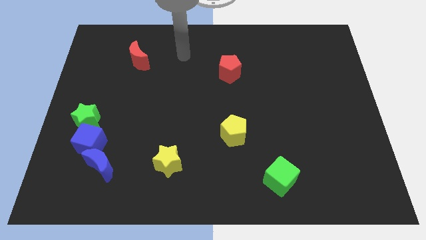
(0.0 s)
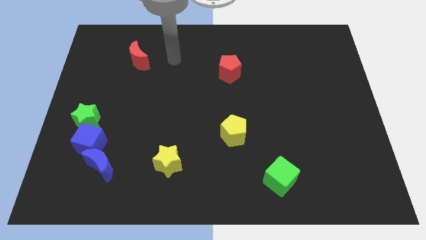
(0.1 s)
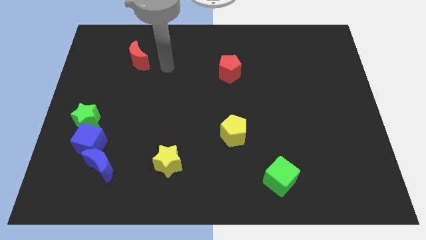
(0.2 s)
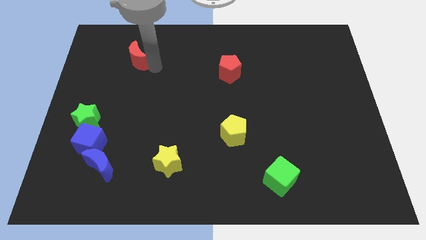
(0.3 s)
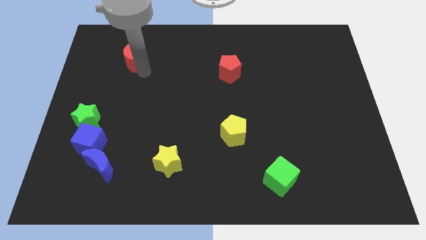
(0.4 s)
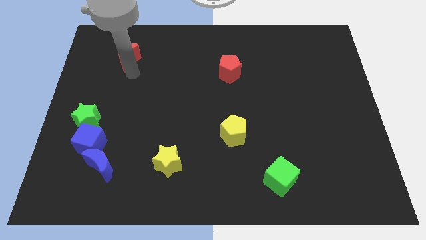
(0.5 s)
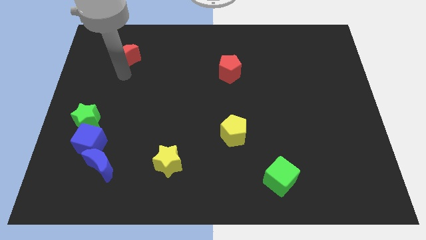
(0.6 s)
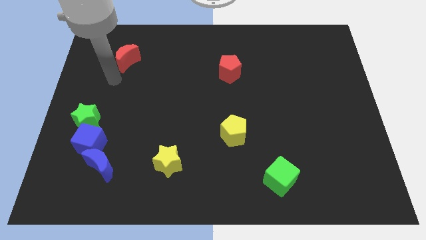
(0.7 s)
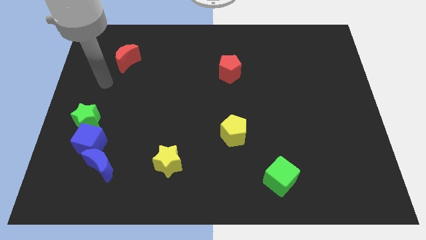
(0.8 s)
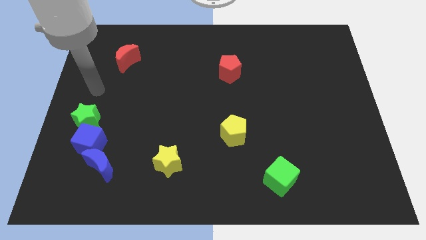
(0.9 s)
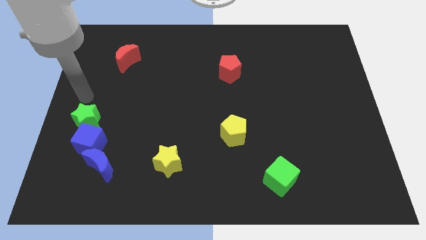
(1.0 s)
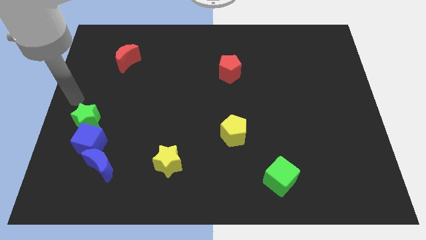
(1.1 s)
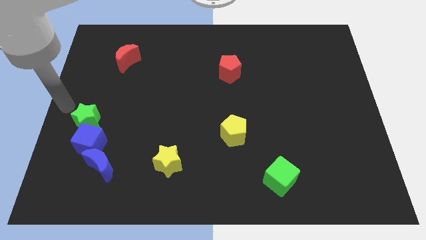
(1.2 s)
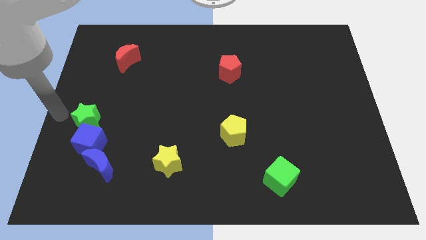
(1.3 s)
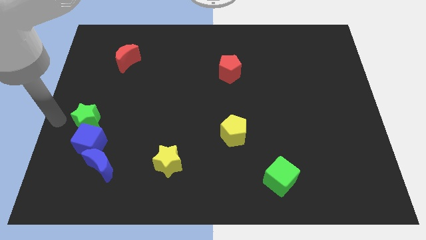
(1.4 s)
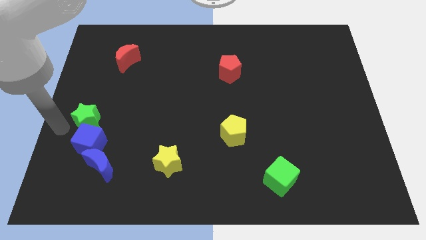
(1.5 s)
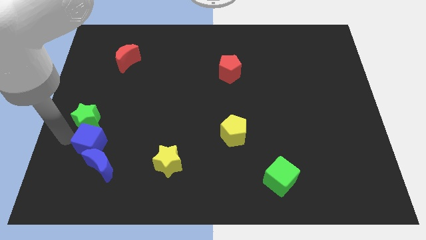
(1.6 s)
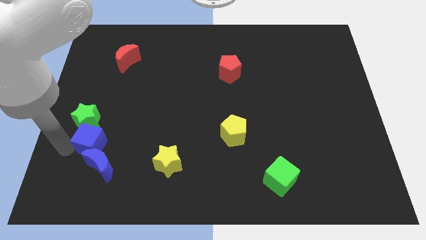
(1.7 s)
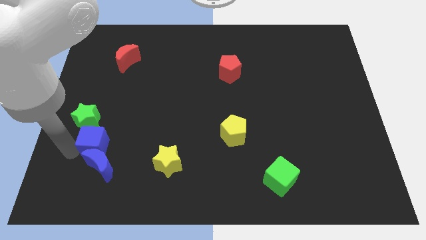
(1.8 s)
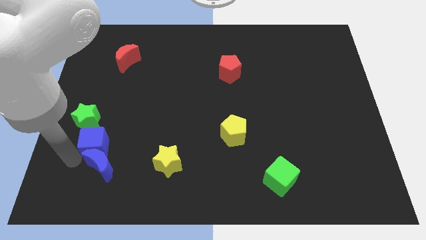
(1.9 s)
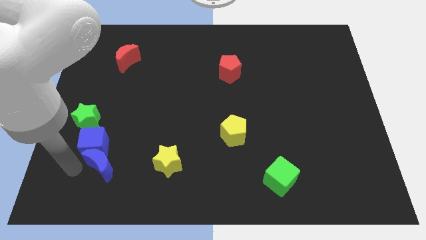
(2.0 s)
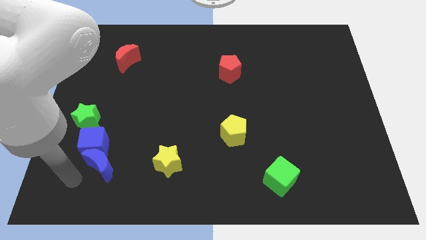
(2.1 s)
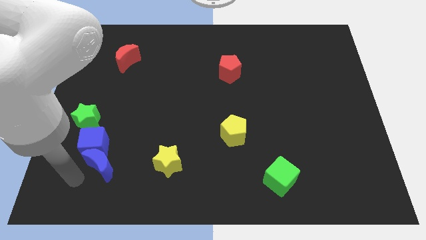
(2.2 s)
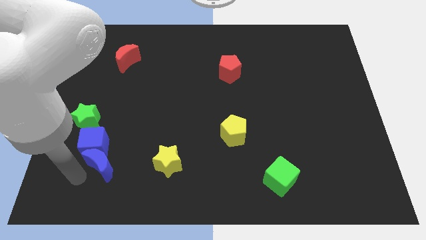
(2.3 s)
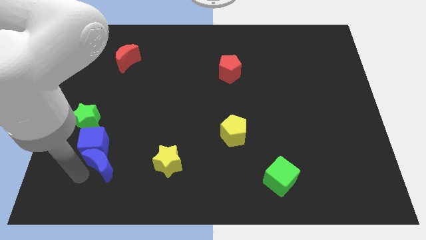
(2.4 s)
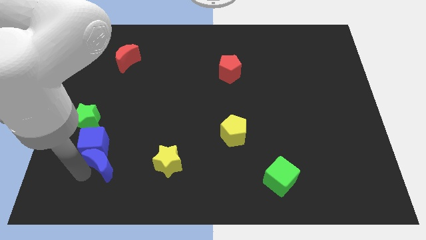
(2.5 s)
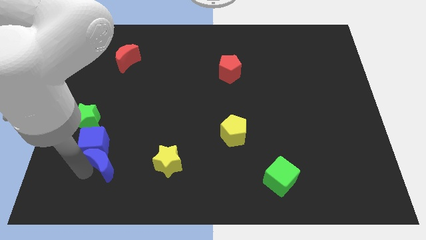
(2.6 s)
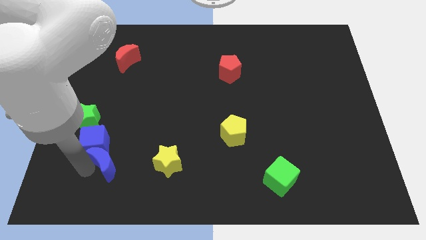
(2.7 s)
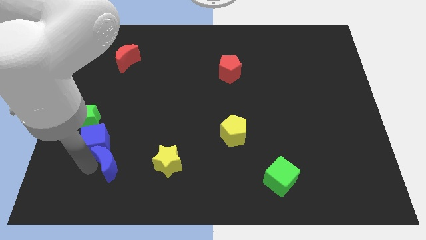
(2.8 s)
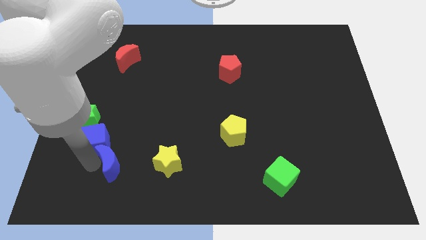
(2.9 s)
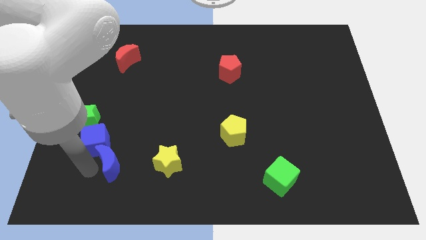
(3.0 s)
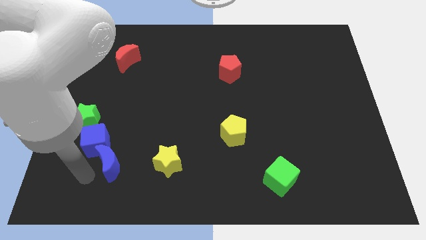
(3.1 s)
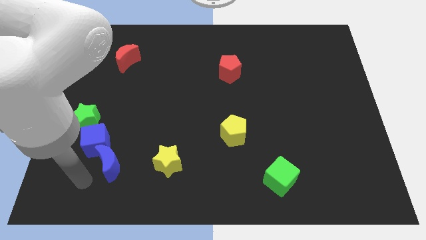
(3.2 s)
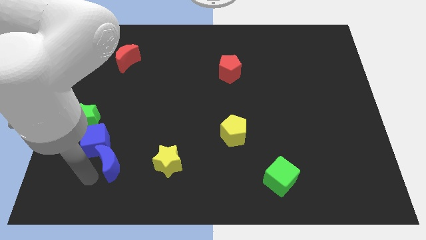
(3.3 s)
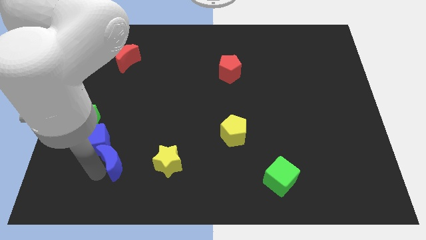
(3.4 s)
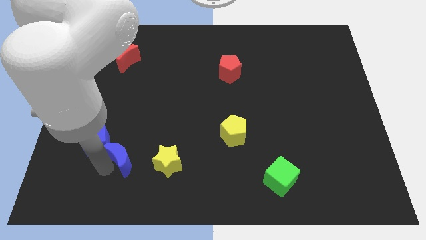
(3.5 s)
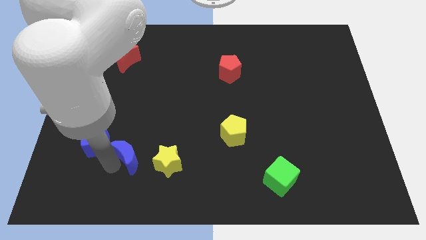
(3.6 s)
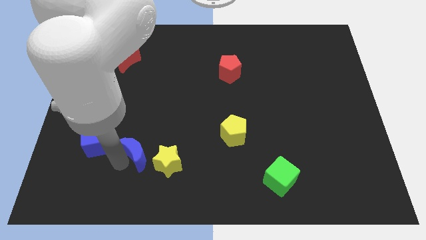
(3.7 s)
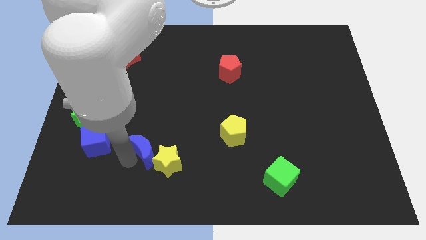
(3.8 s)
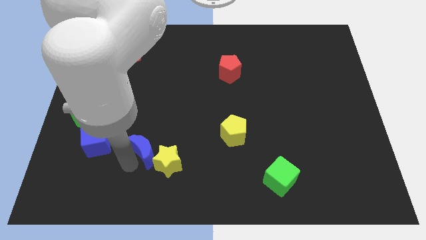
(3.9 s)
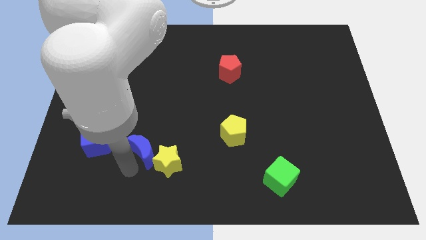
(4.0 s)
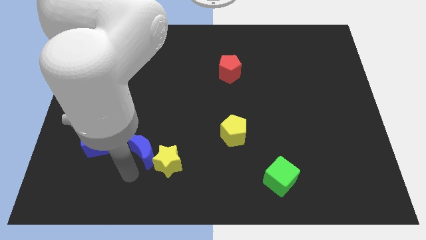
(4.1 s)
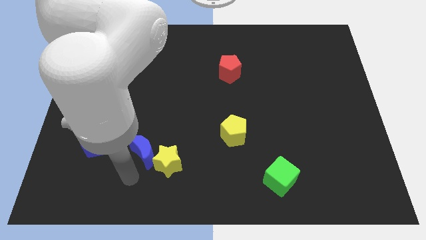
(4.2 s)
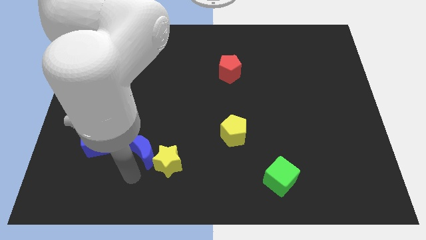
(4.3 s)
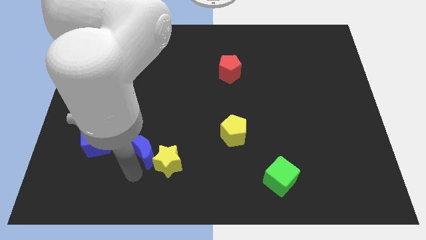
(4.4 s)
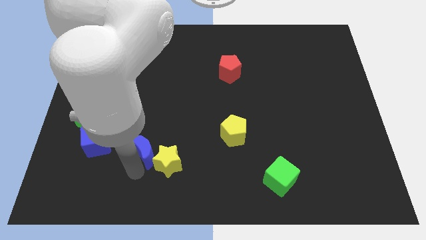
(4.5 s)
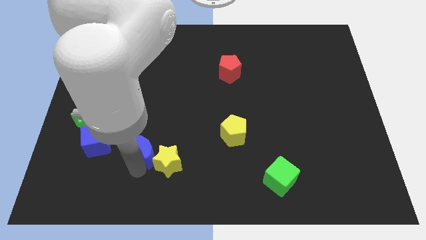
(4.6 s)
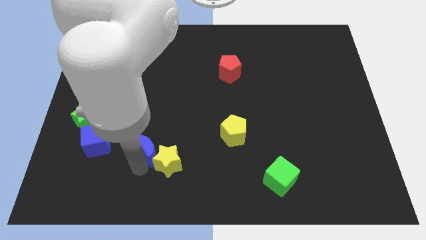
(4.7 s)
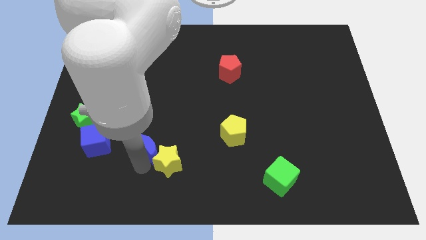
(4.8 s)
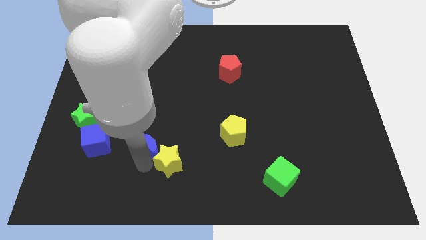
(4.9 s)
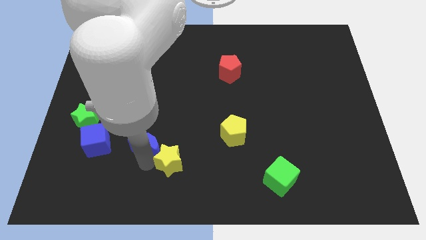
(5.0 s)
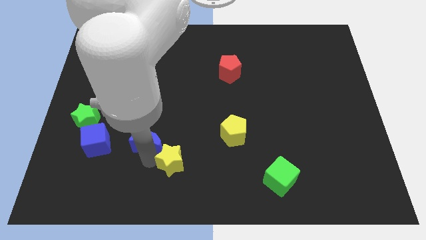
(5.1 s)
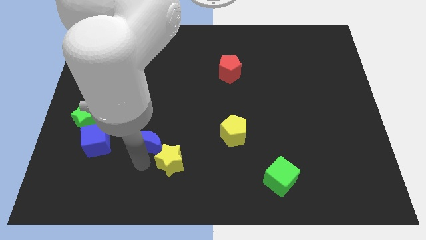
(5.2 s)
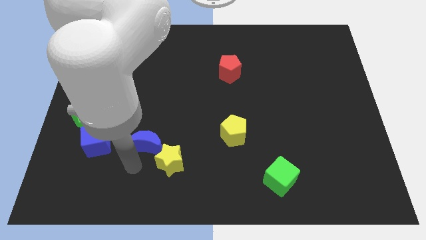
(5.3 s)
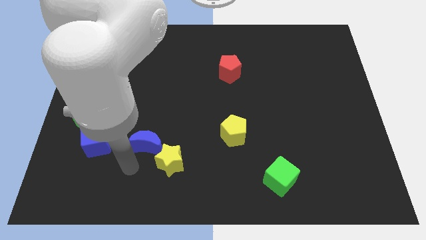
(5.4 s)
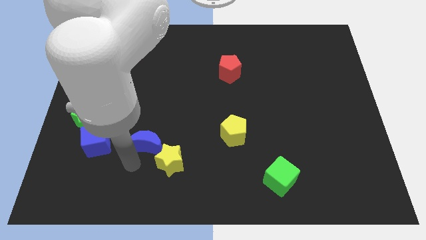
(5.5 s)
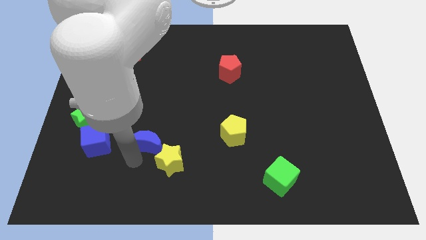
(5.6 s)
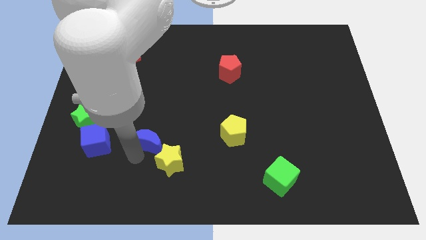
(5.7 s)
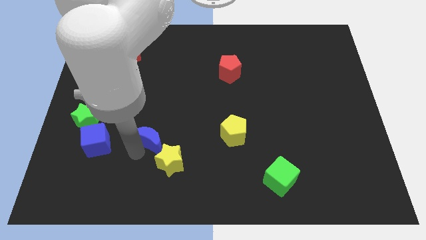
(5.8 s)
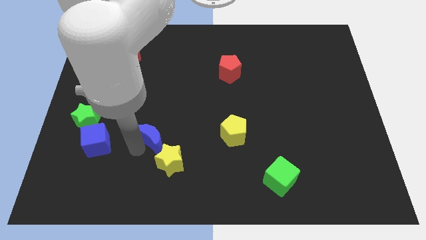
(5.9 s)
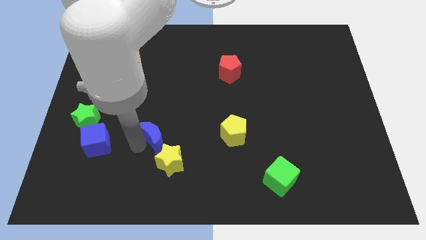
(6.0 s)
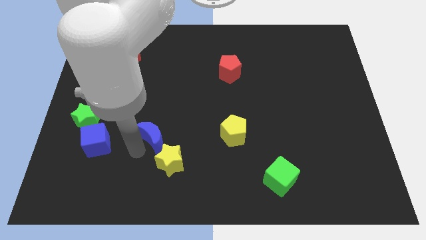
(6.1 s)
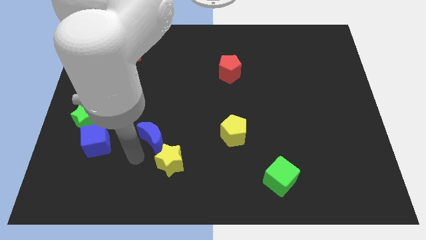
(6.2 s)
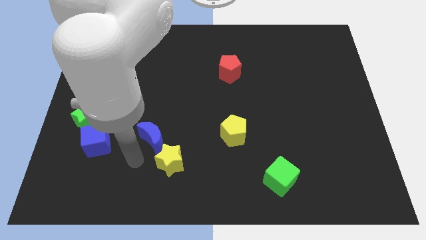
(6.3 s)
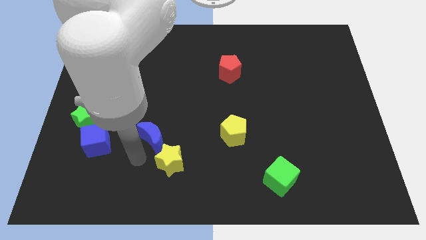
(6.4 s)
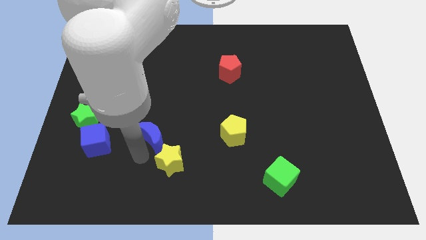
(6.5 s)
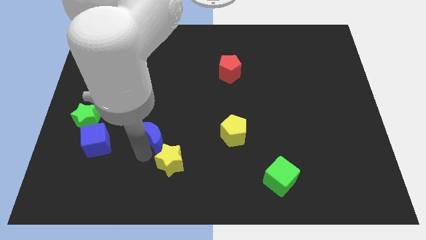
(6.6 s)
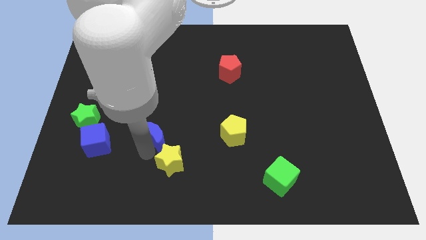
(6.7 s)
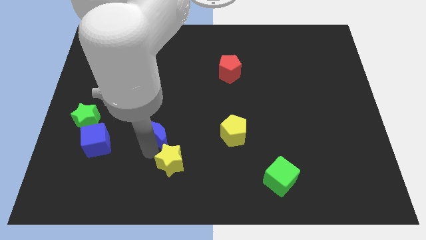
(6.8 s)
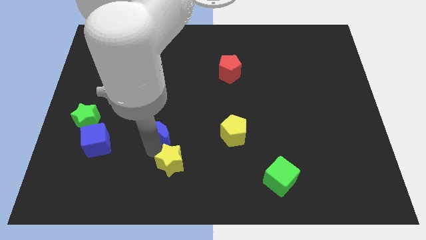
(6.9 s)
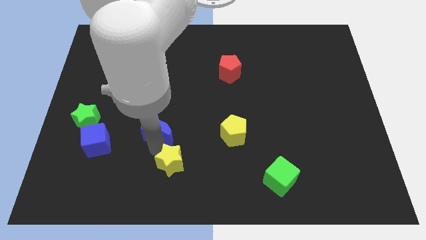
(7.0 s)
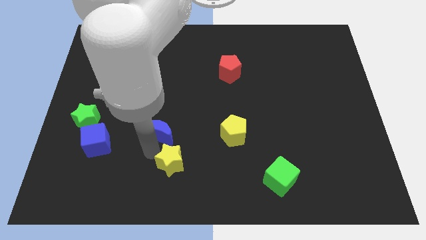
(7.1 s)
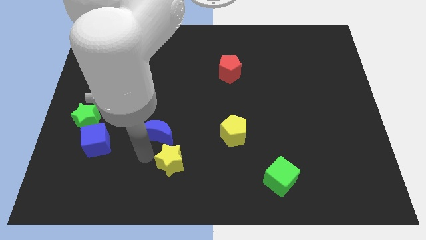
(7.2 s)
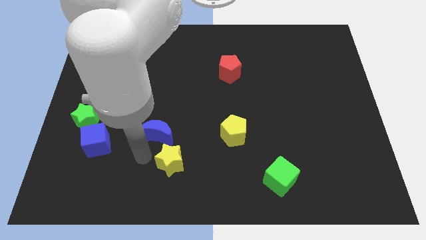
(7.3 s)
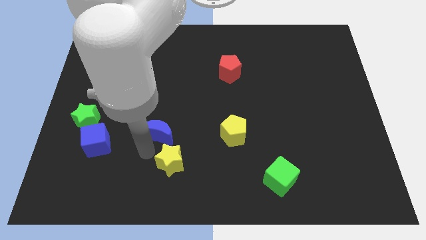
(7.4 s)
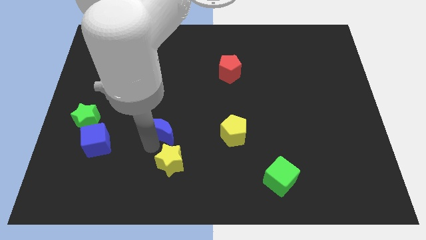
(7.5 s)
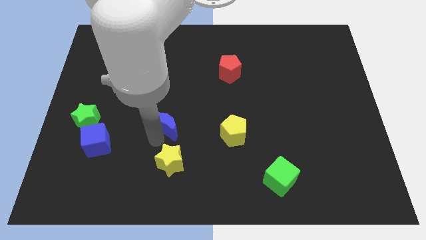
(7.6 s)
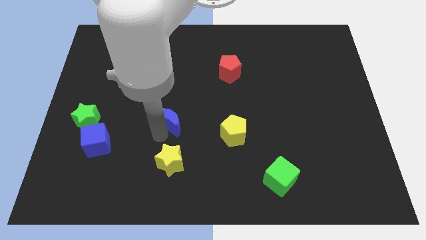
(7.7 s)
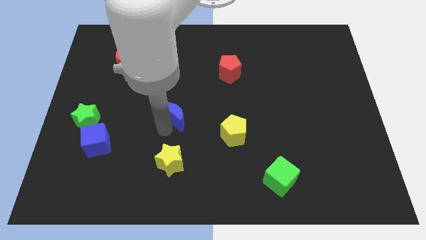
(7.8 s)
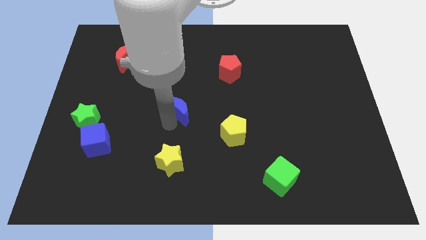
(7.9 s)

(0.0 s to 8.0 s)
move the blue moon upwards and to the right diagonally

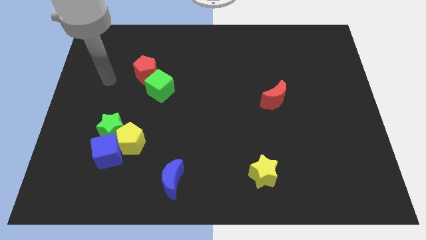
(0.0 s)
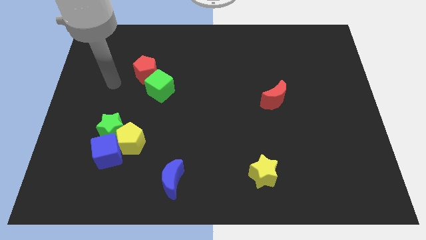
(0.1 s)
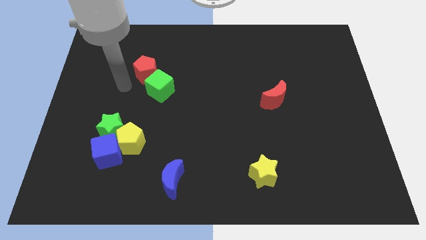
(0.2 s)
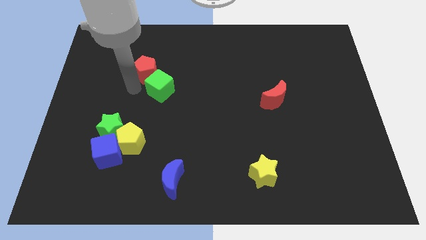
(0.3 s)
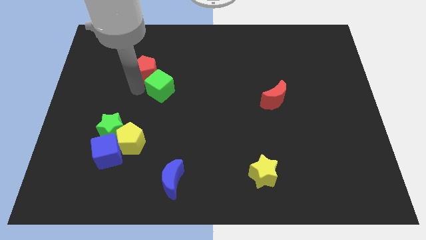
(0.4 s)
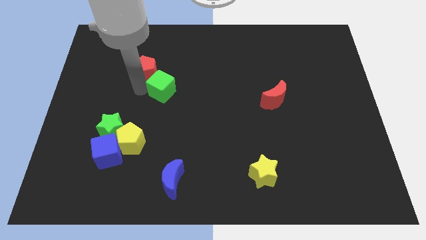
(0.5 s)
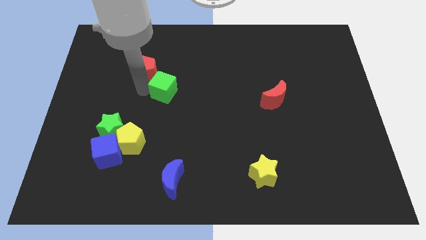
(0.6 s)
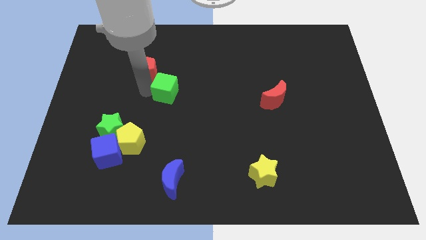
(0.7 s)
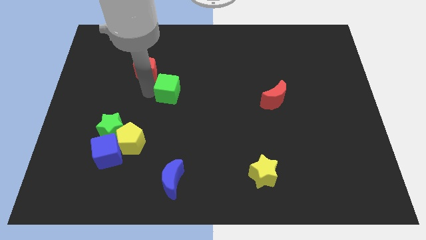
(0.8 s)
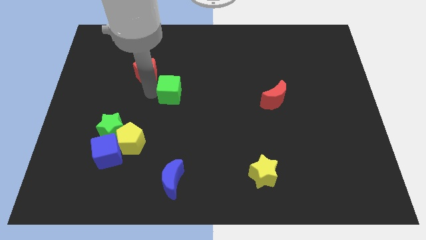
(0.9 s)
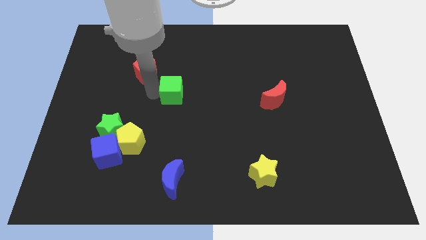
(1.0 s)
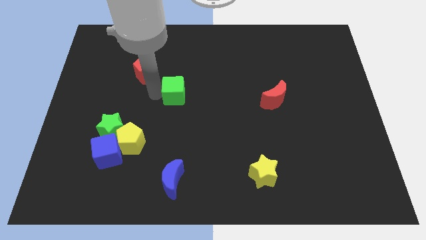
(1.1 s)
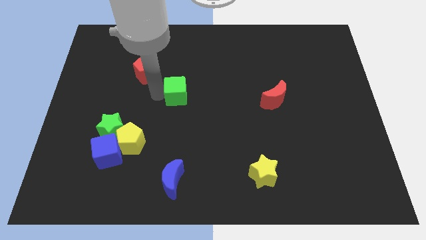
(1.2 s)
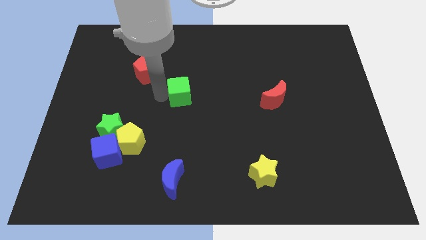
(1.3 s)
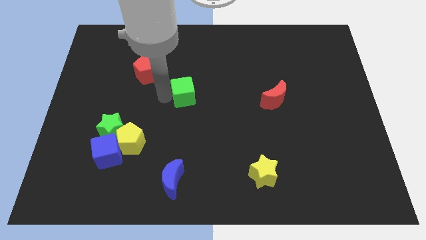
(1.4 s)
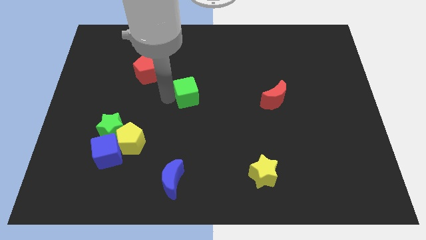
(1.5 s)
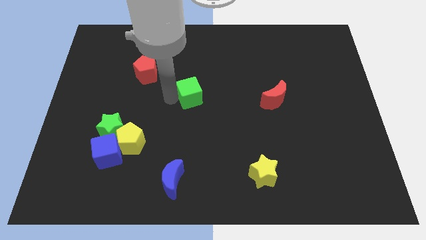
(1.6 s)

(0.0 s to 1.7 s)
slide the green cube to the right a bit
